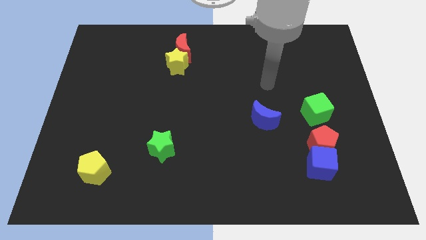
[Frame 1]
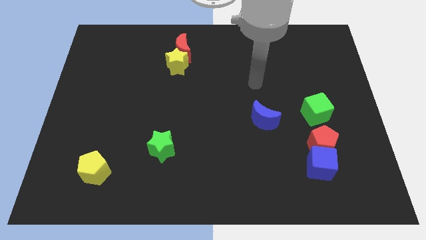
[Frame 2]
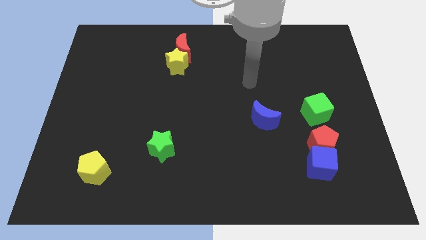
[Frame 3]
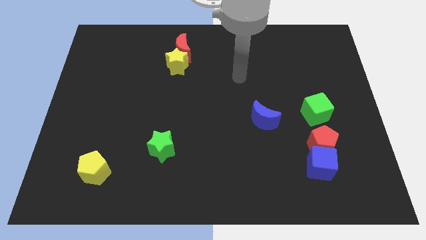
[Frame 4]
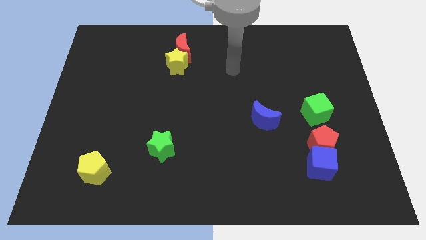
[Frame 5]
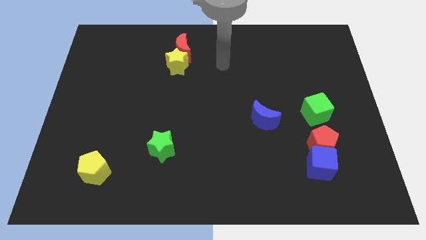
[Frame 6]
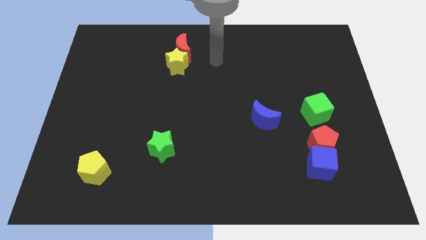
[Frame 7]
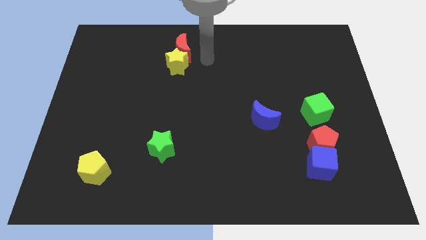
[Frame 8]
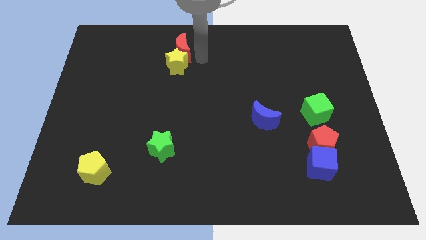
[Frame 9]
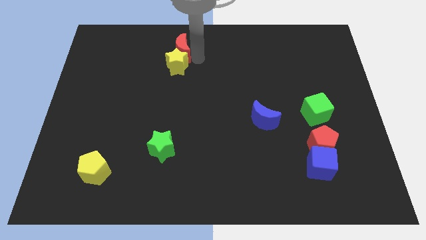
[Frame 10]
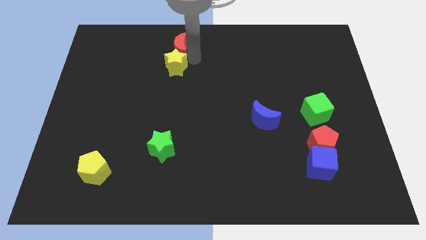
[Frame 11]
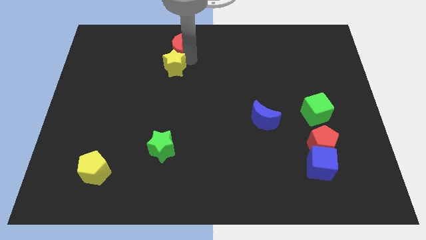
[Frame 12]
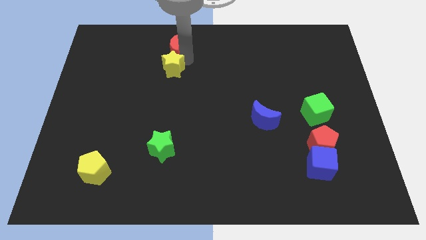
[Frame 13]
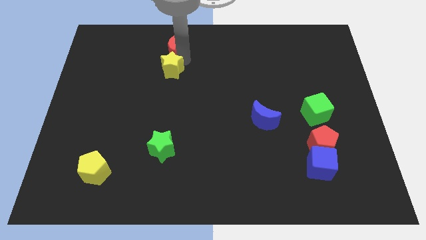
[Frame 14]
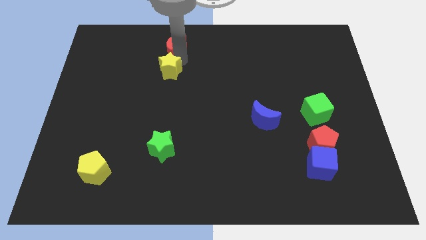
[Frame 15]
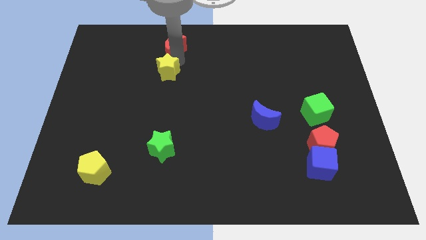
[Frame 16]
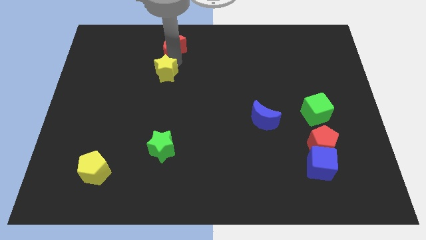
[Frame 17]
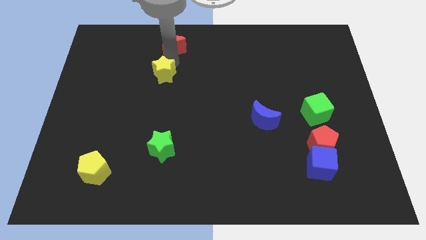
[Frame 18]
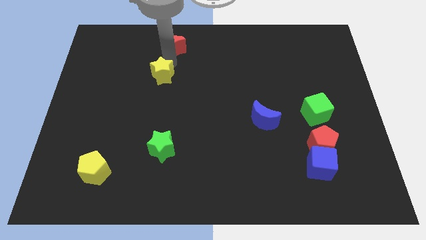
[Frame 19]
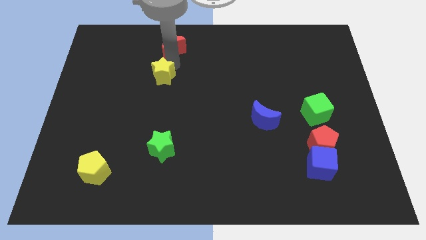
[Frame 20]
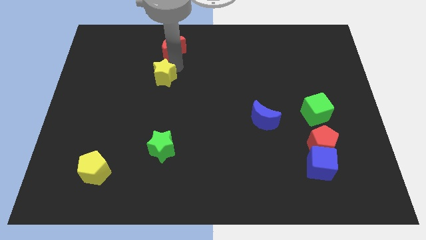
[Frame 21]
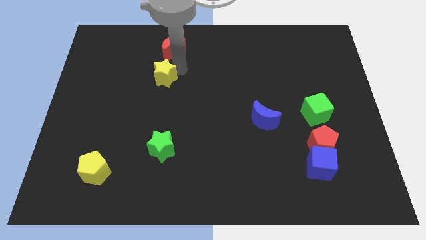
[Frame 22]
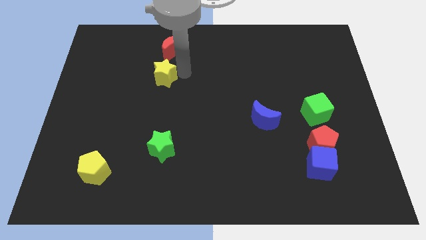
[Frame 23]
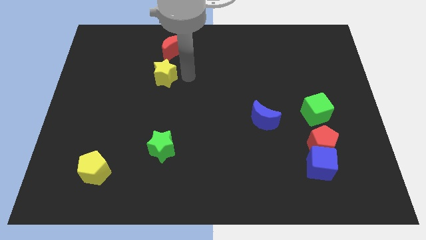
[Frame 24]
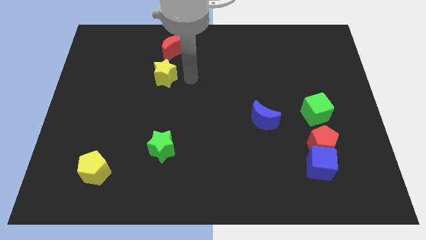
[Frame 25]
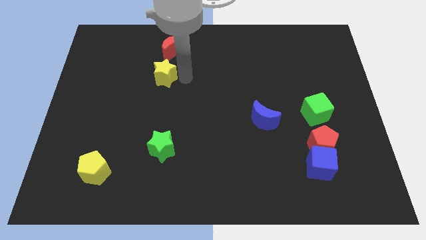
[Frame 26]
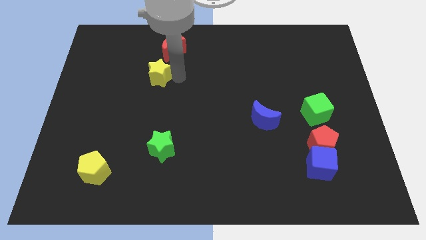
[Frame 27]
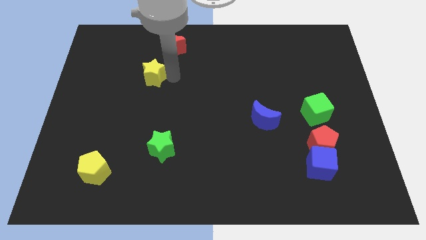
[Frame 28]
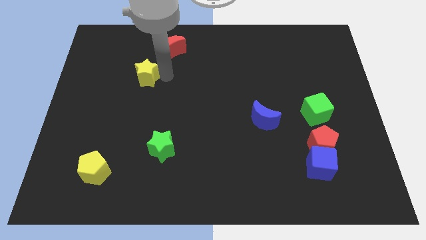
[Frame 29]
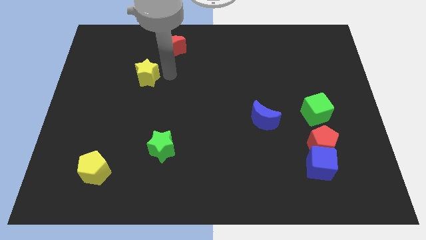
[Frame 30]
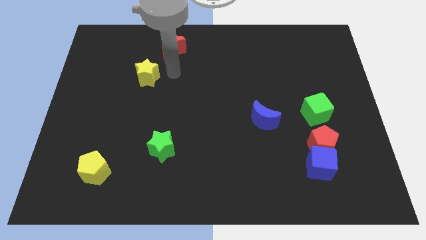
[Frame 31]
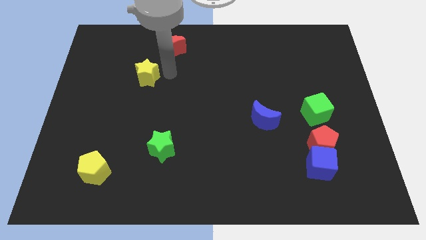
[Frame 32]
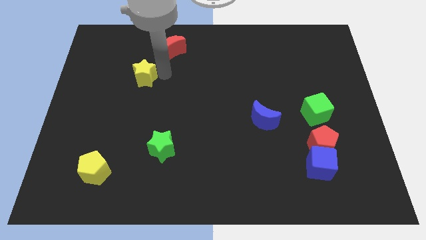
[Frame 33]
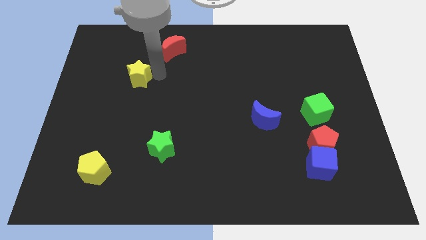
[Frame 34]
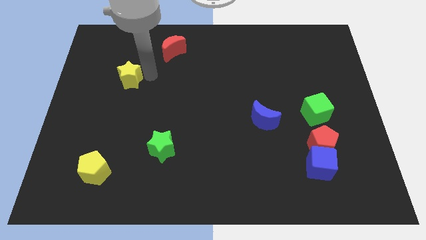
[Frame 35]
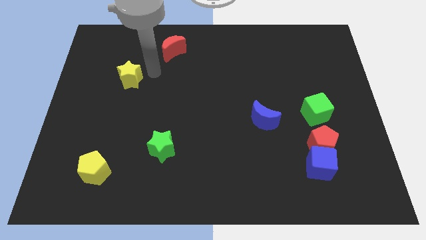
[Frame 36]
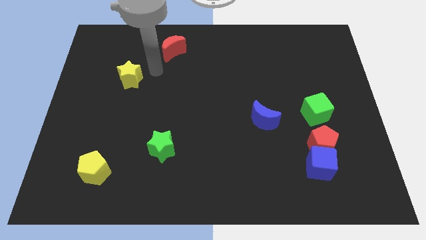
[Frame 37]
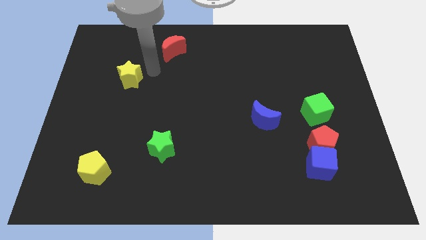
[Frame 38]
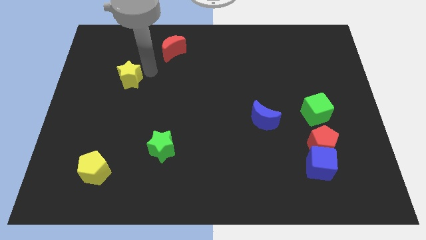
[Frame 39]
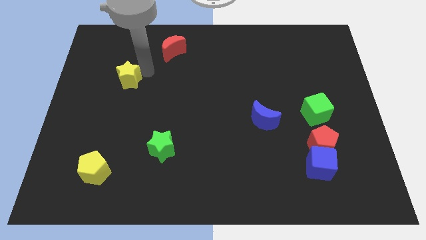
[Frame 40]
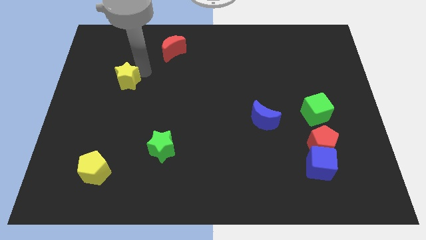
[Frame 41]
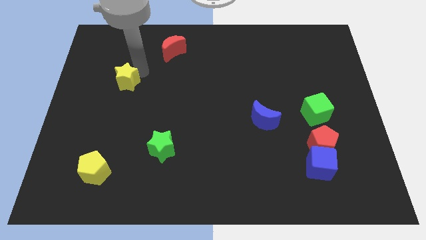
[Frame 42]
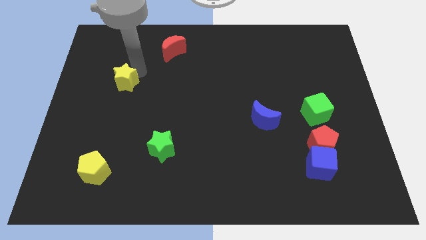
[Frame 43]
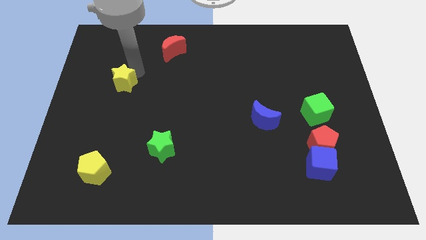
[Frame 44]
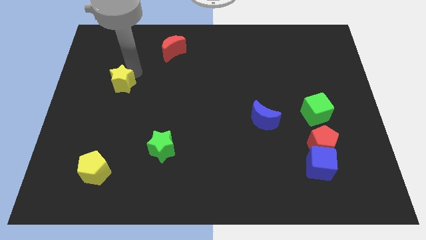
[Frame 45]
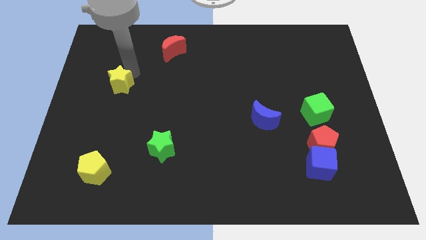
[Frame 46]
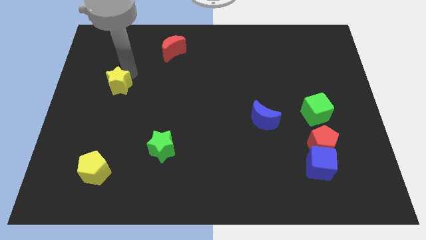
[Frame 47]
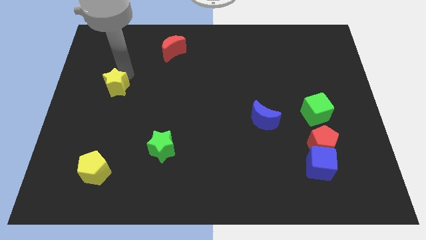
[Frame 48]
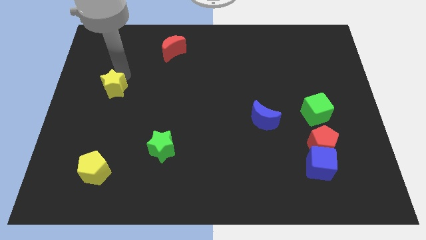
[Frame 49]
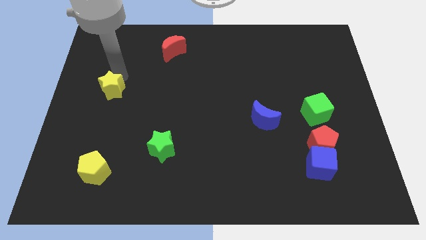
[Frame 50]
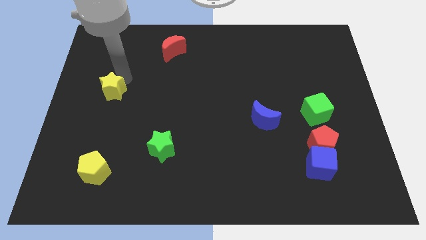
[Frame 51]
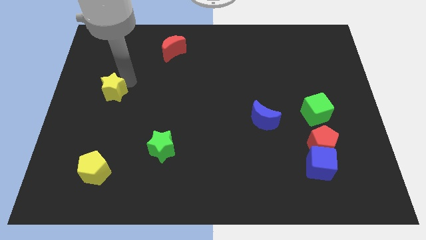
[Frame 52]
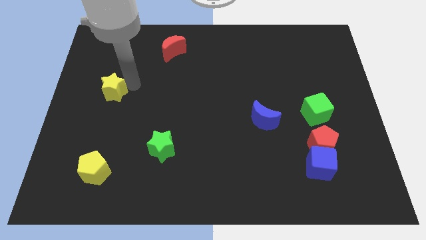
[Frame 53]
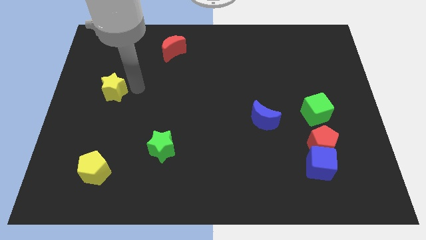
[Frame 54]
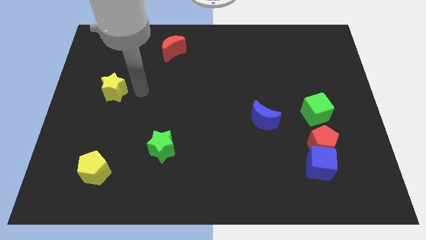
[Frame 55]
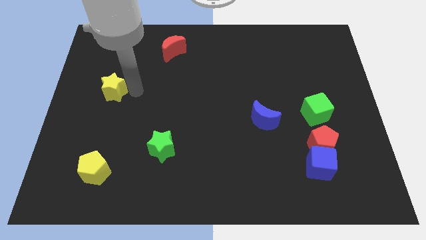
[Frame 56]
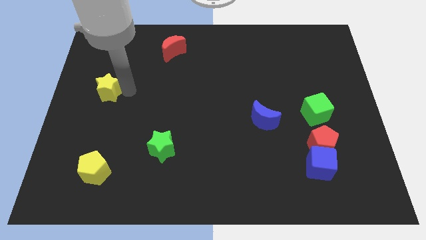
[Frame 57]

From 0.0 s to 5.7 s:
slide the yellow star to the left side

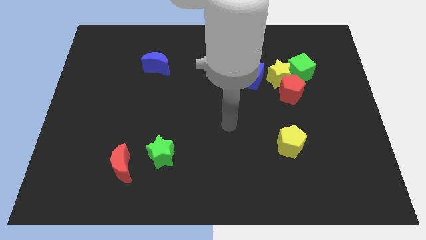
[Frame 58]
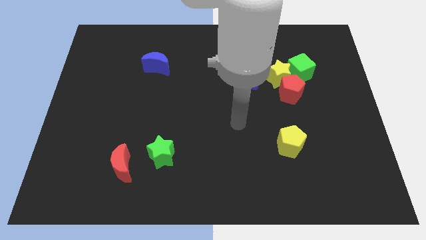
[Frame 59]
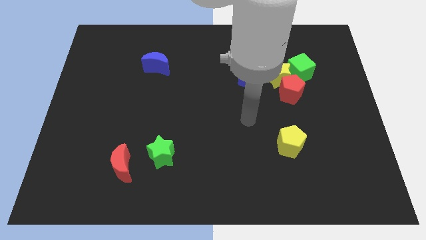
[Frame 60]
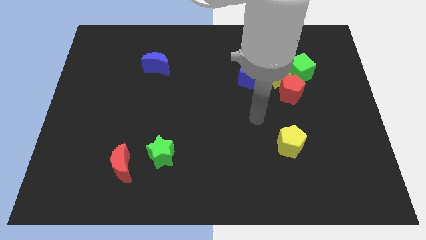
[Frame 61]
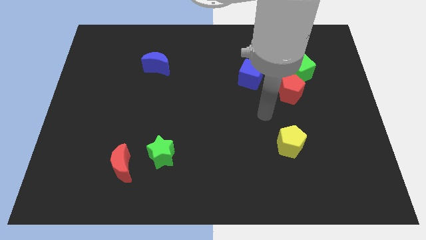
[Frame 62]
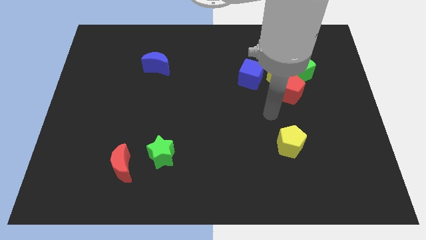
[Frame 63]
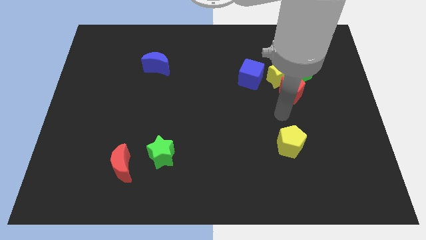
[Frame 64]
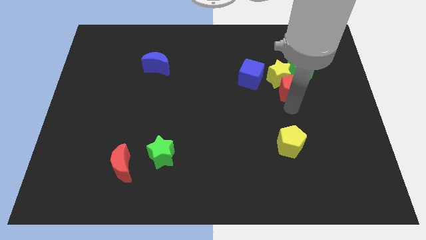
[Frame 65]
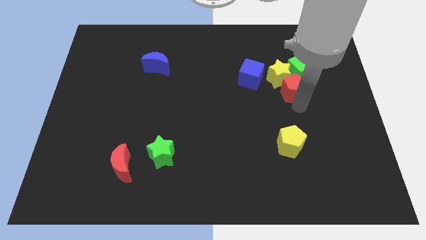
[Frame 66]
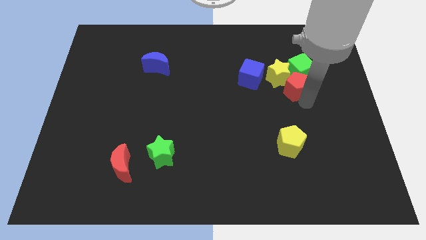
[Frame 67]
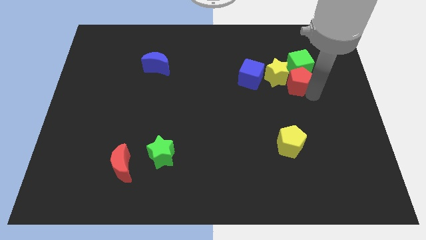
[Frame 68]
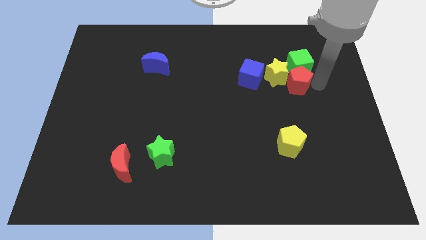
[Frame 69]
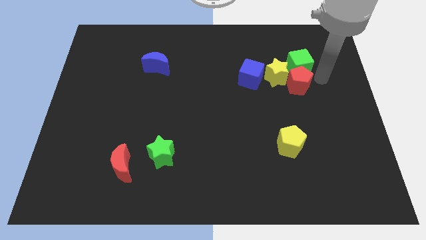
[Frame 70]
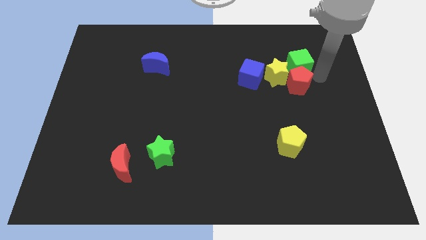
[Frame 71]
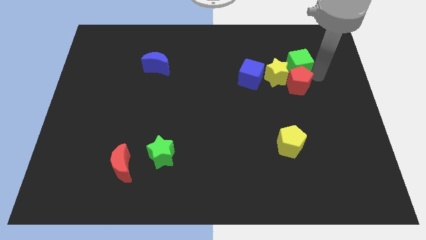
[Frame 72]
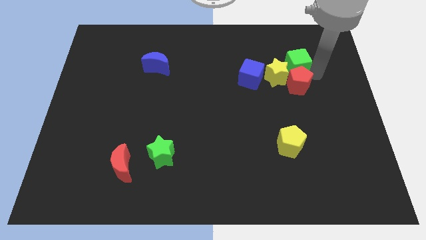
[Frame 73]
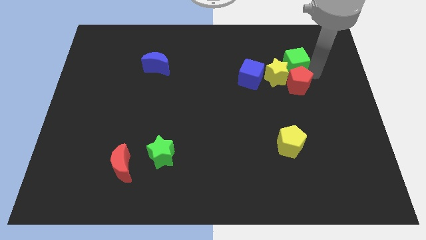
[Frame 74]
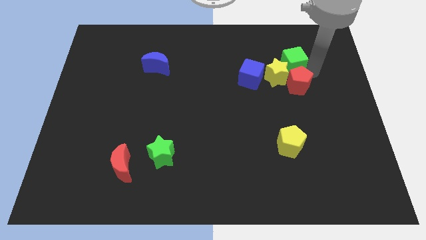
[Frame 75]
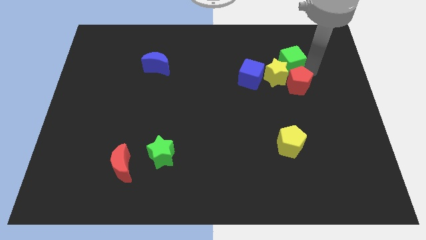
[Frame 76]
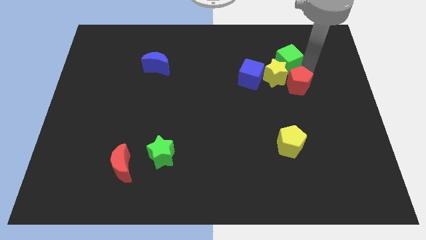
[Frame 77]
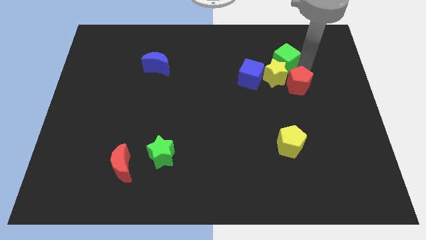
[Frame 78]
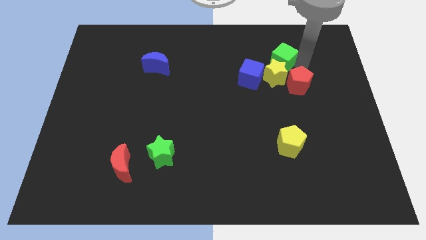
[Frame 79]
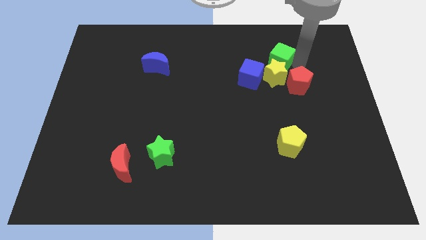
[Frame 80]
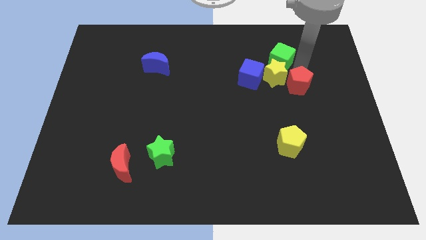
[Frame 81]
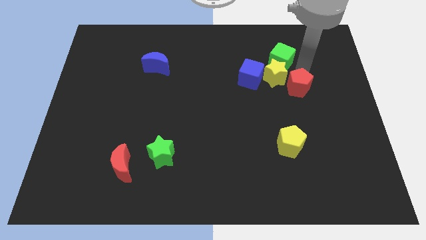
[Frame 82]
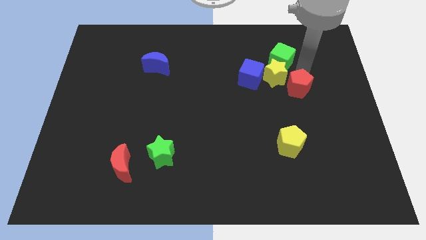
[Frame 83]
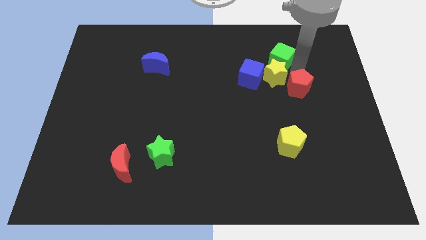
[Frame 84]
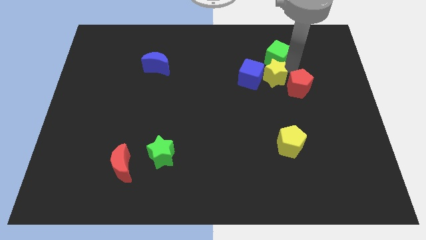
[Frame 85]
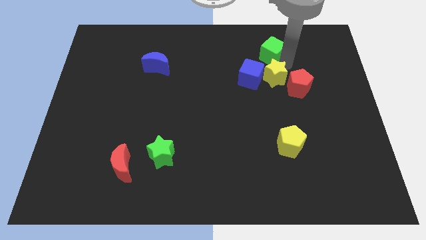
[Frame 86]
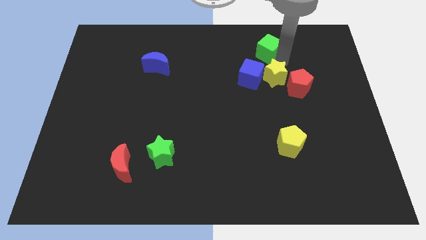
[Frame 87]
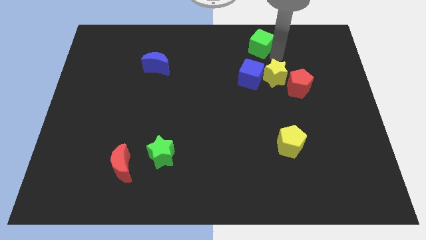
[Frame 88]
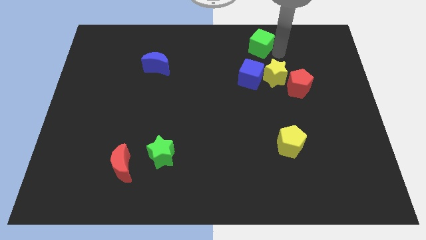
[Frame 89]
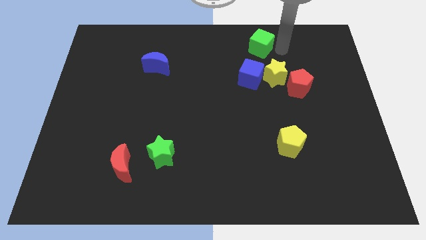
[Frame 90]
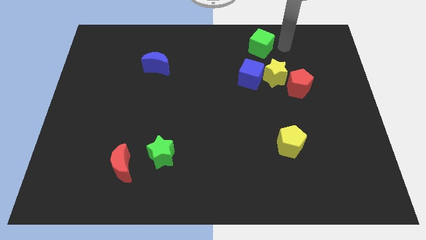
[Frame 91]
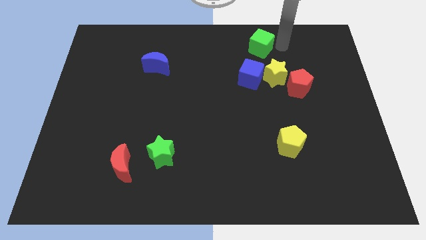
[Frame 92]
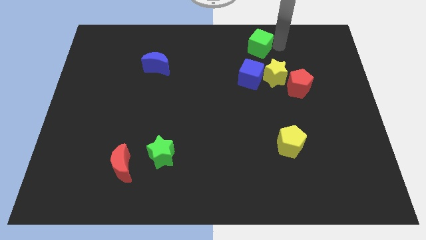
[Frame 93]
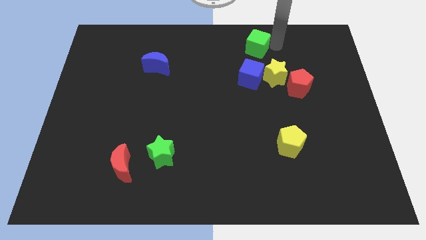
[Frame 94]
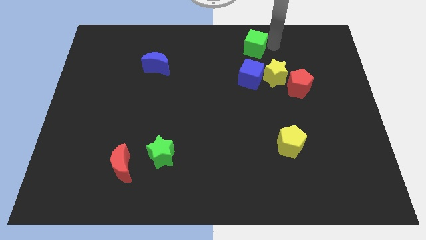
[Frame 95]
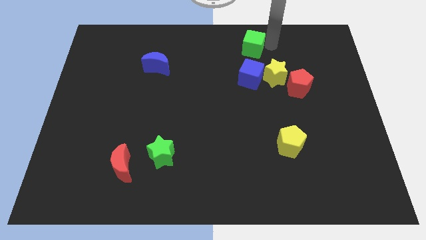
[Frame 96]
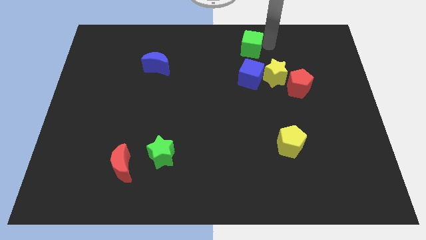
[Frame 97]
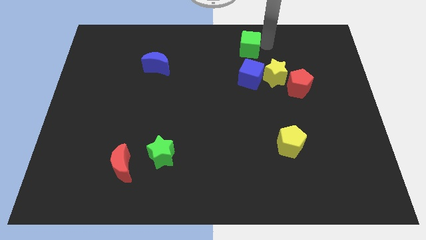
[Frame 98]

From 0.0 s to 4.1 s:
push the green cube to the towards your base
